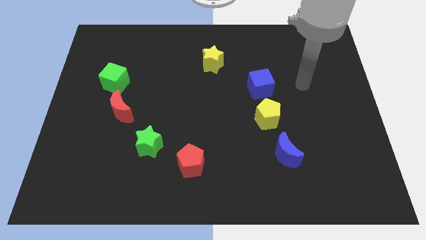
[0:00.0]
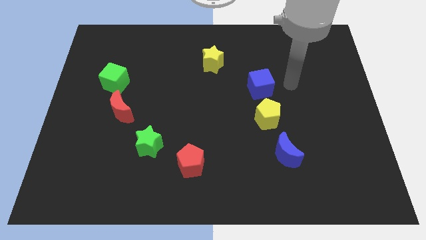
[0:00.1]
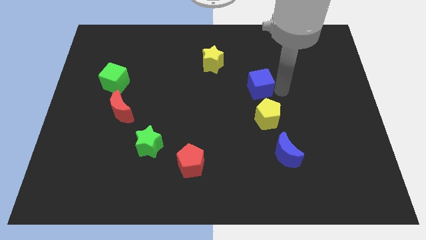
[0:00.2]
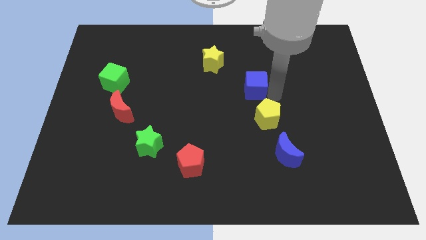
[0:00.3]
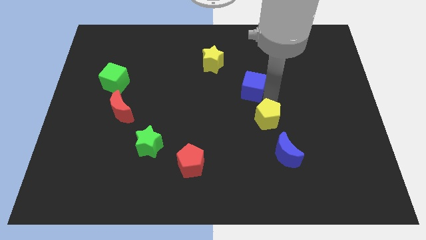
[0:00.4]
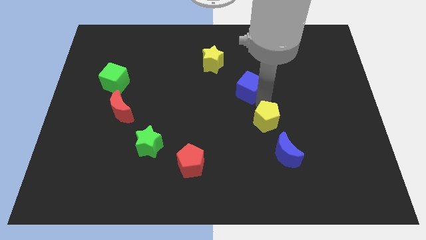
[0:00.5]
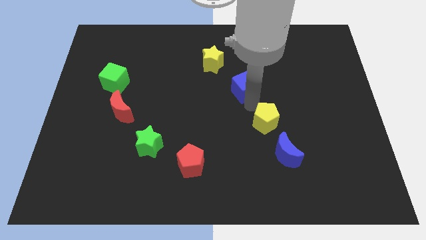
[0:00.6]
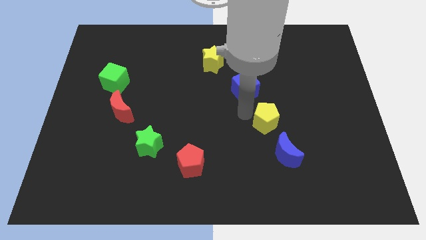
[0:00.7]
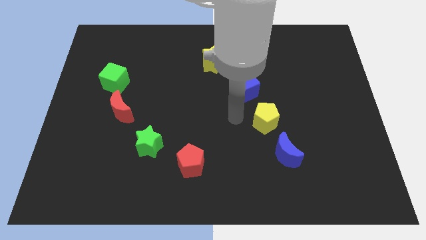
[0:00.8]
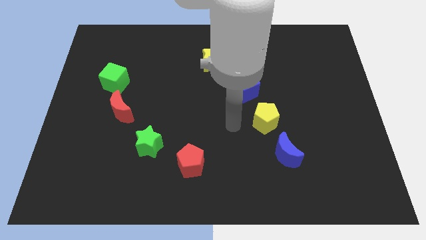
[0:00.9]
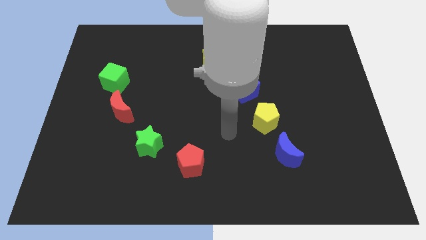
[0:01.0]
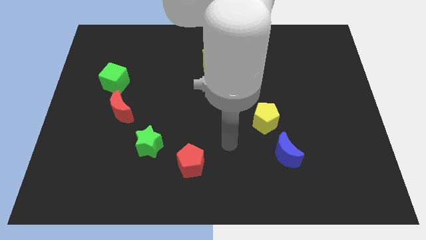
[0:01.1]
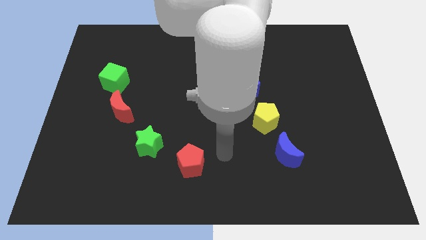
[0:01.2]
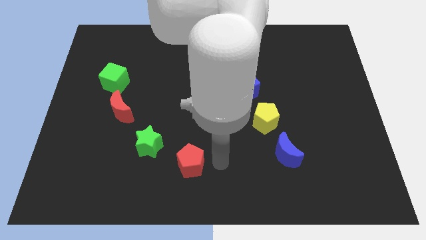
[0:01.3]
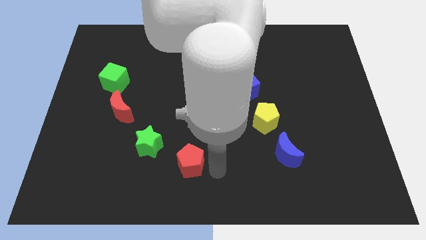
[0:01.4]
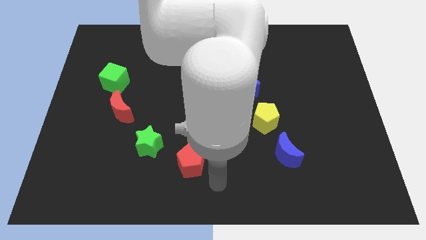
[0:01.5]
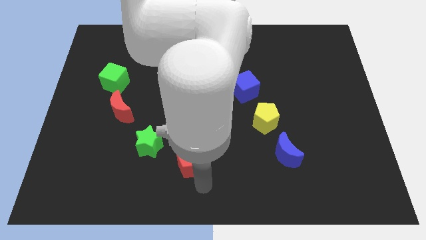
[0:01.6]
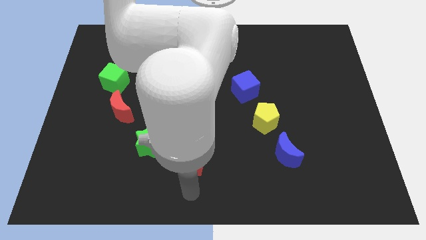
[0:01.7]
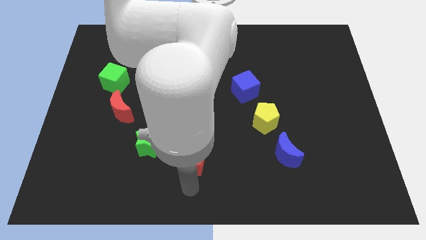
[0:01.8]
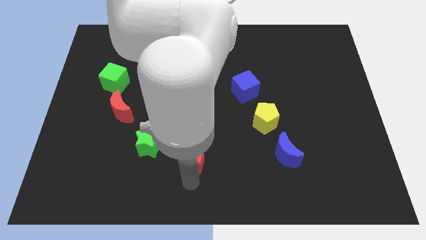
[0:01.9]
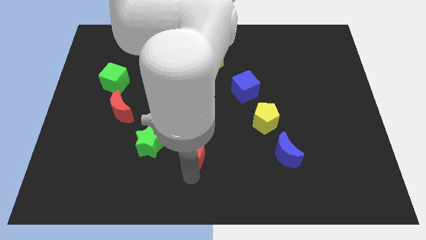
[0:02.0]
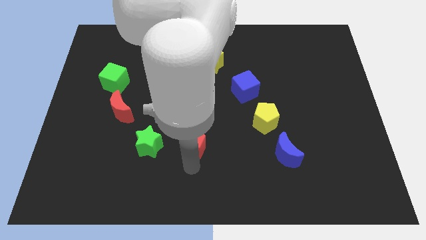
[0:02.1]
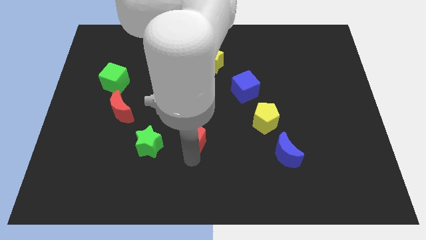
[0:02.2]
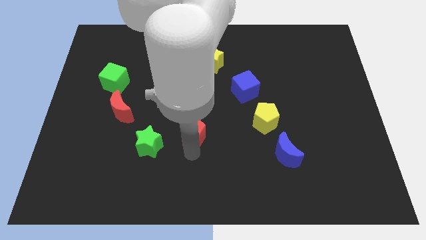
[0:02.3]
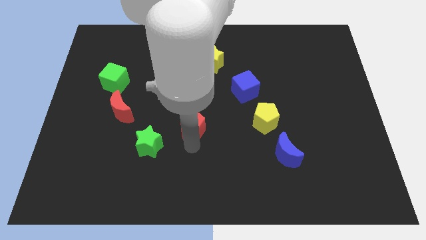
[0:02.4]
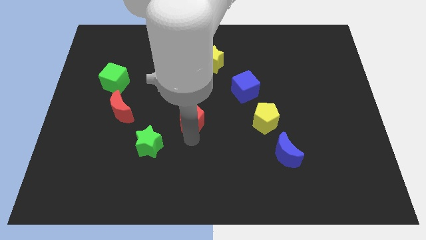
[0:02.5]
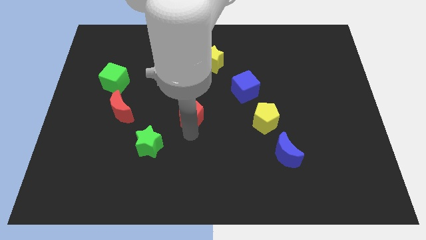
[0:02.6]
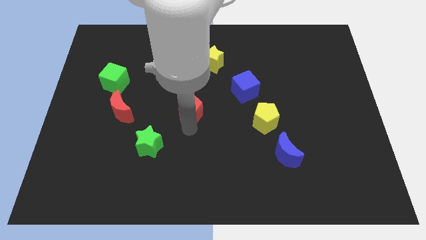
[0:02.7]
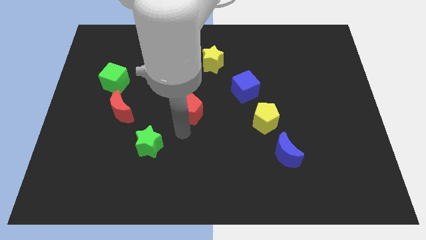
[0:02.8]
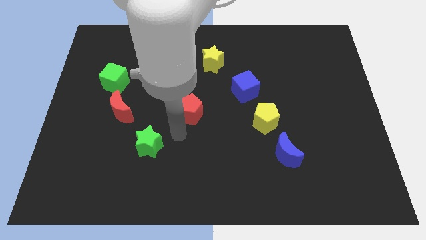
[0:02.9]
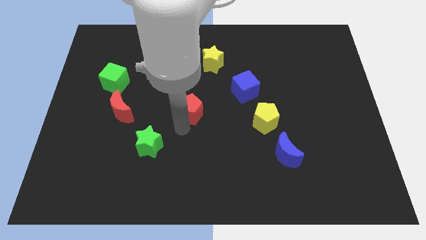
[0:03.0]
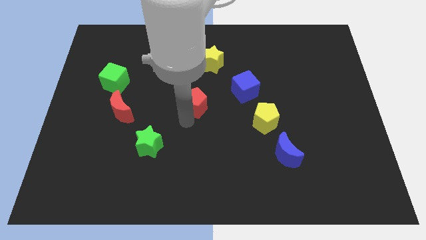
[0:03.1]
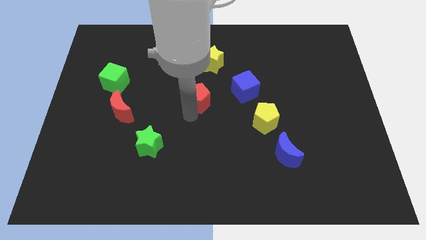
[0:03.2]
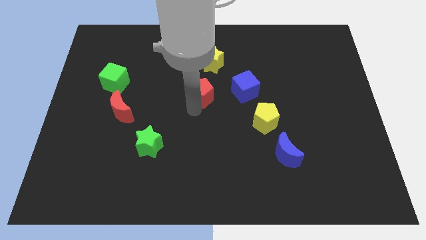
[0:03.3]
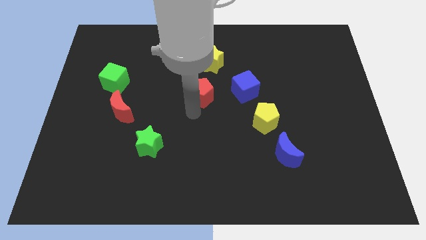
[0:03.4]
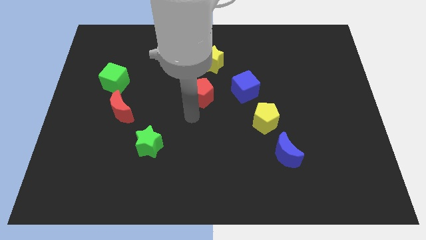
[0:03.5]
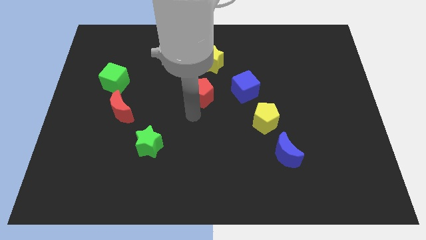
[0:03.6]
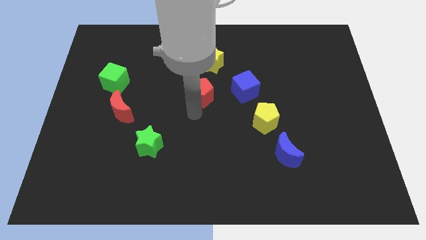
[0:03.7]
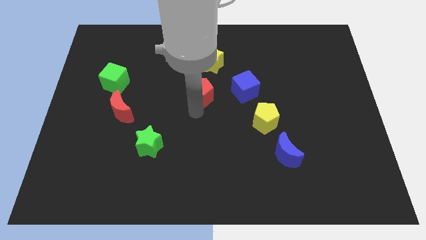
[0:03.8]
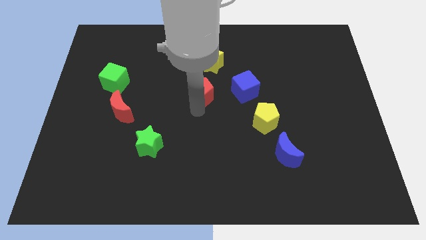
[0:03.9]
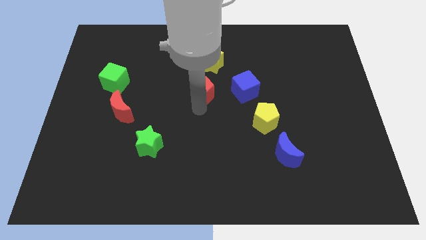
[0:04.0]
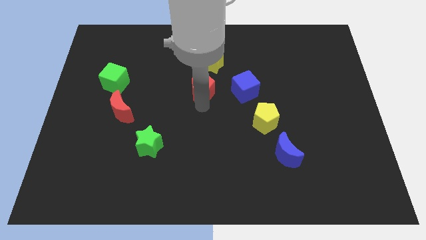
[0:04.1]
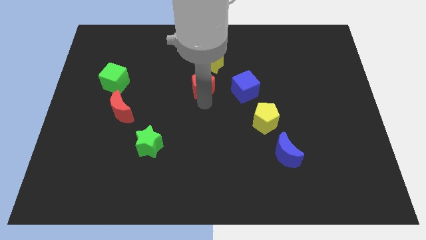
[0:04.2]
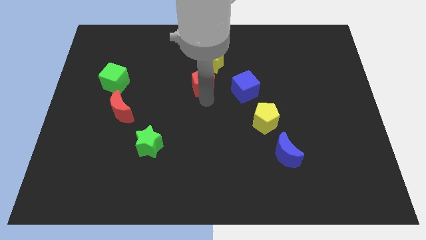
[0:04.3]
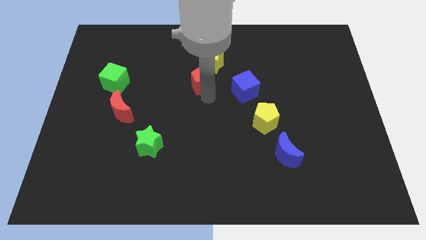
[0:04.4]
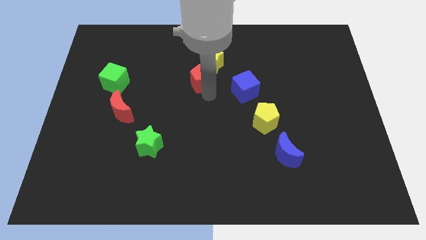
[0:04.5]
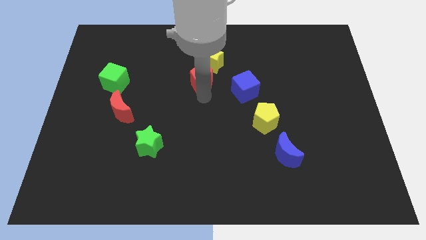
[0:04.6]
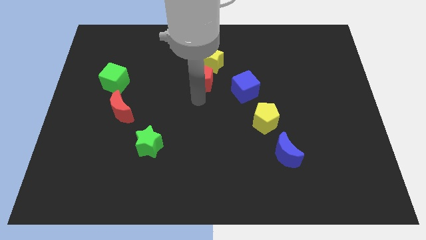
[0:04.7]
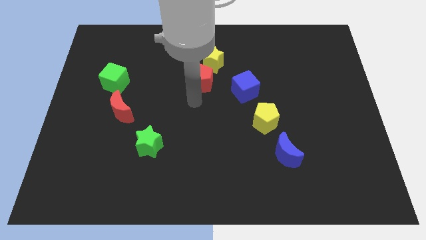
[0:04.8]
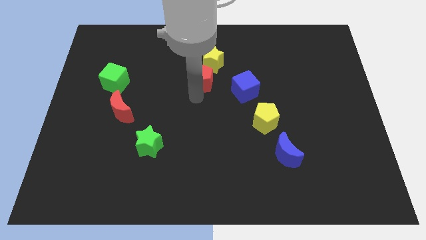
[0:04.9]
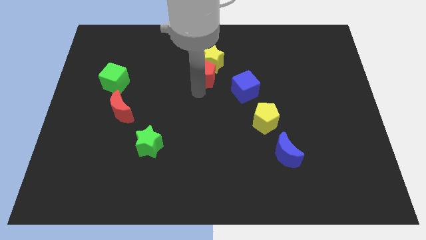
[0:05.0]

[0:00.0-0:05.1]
move the red pentagon towards the yellow star

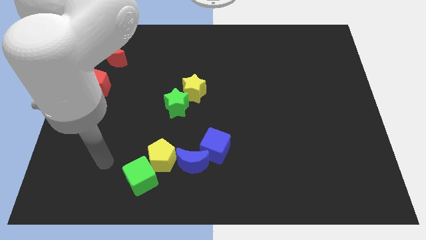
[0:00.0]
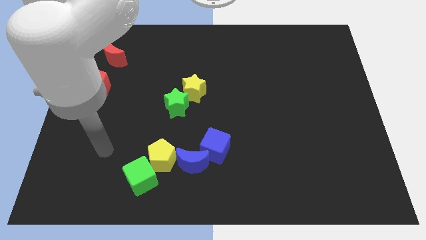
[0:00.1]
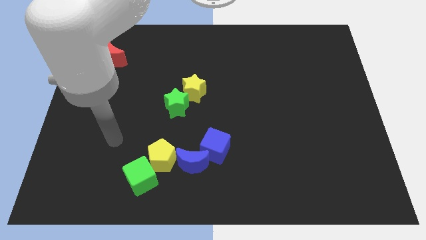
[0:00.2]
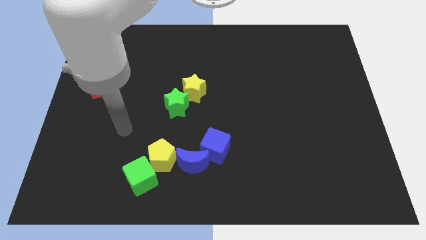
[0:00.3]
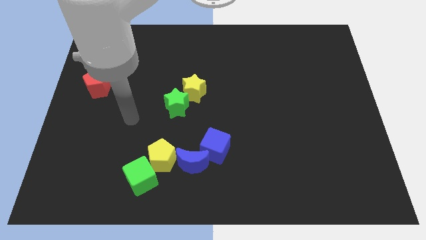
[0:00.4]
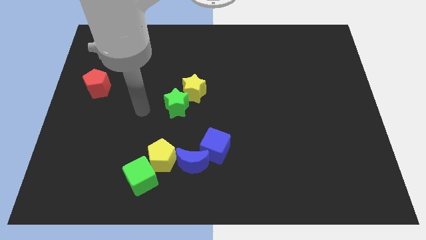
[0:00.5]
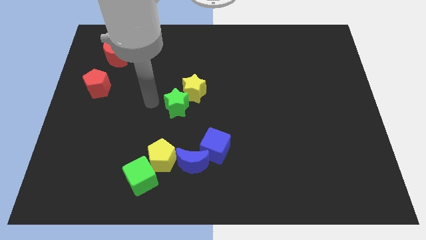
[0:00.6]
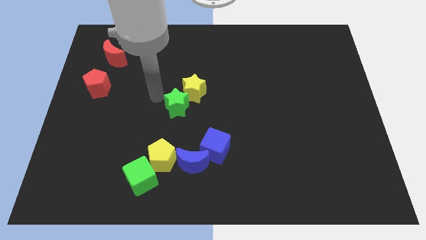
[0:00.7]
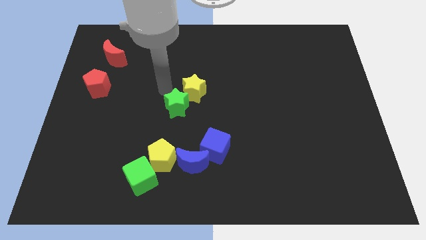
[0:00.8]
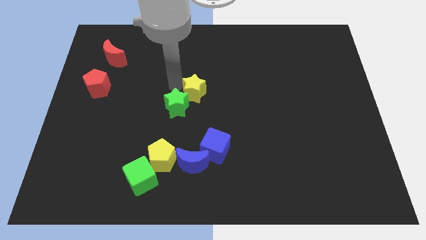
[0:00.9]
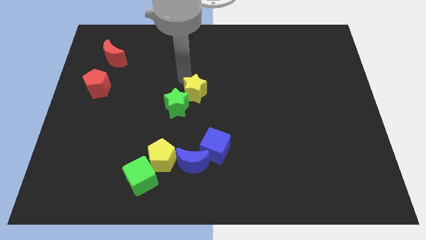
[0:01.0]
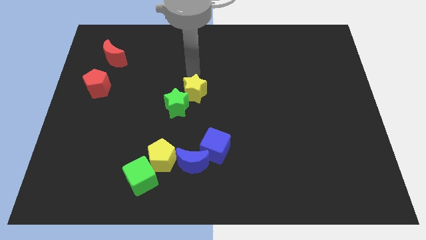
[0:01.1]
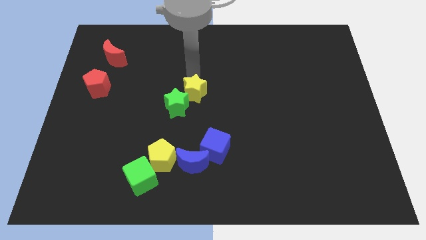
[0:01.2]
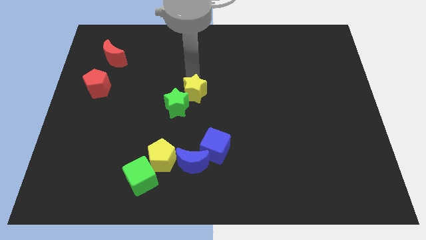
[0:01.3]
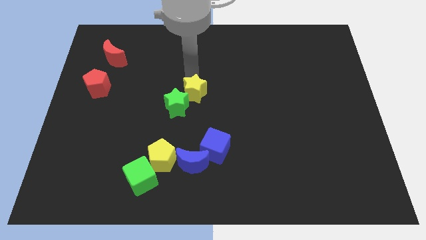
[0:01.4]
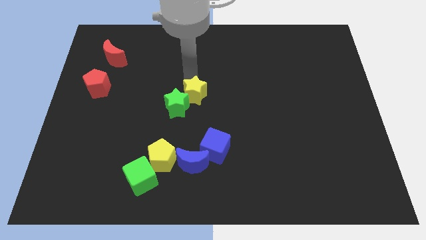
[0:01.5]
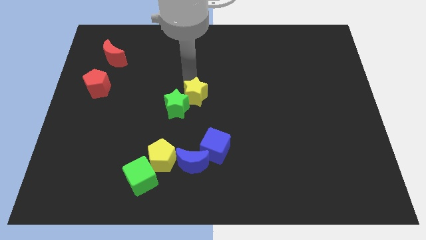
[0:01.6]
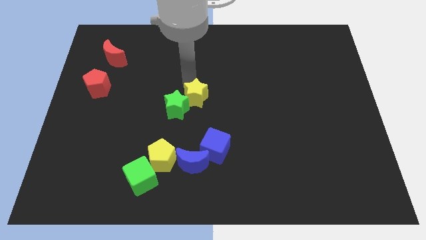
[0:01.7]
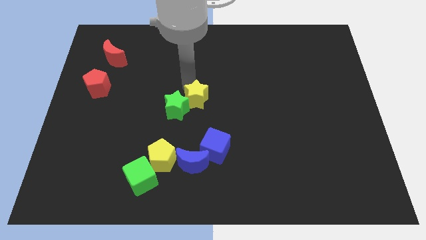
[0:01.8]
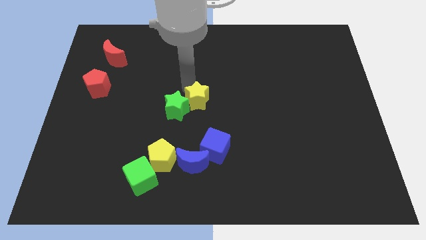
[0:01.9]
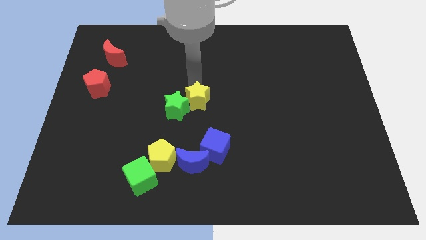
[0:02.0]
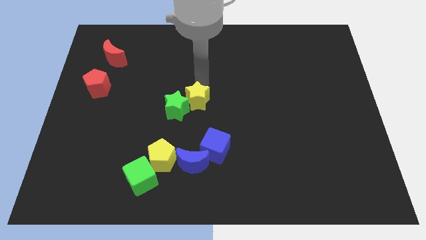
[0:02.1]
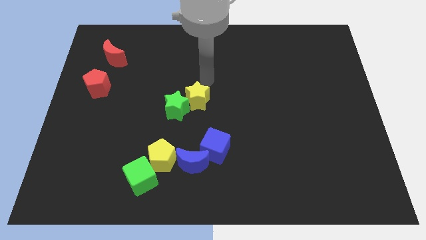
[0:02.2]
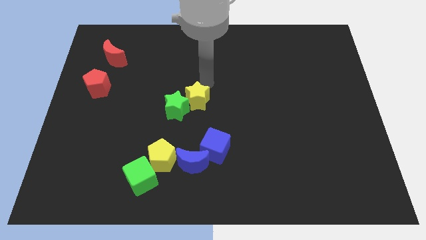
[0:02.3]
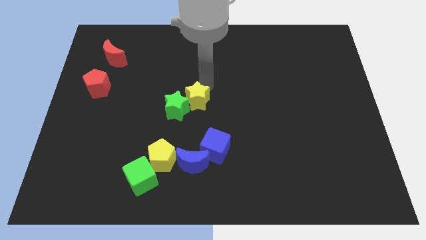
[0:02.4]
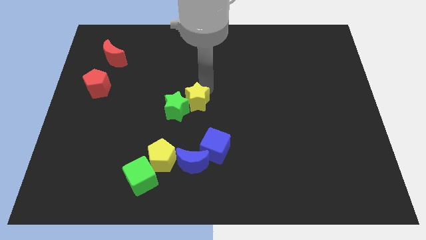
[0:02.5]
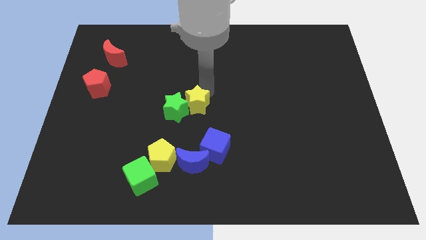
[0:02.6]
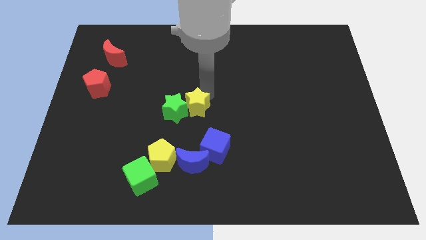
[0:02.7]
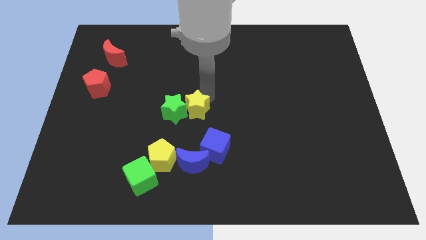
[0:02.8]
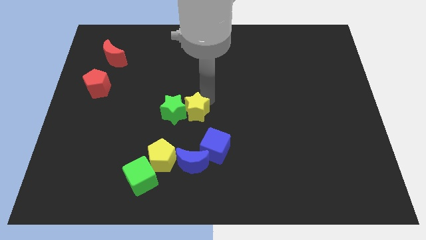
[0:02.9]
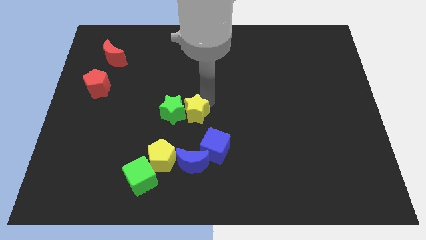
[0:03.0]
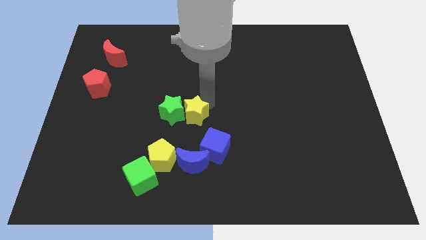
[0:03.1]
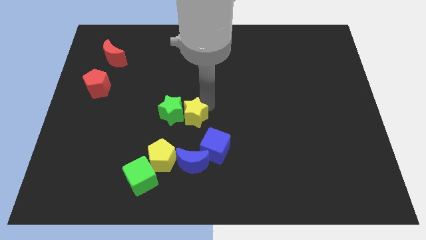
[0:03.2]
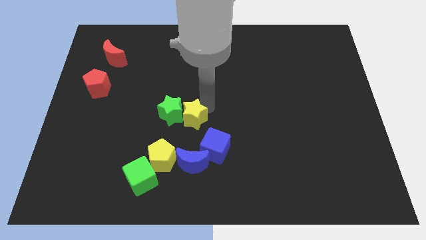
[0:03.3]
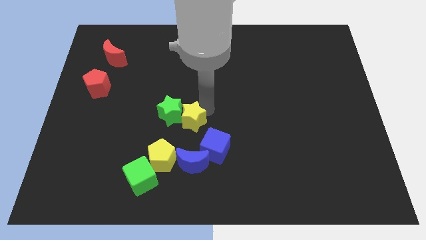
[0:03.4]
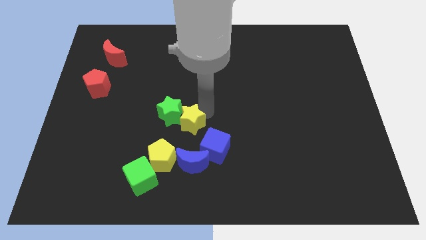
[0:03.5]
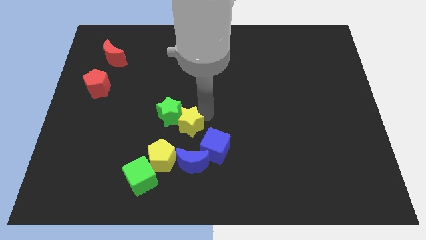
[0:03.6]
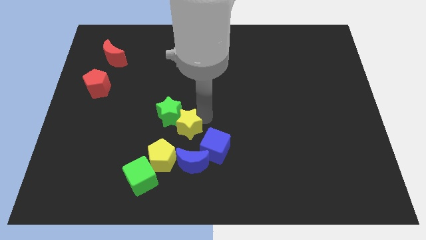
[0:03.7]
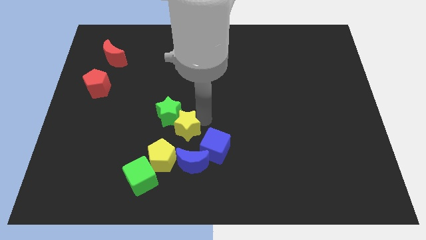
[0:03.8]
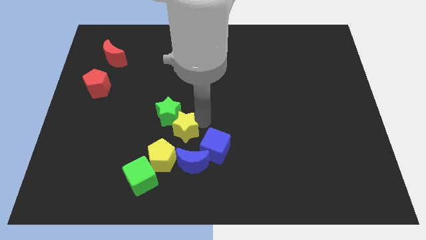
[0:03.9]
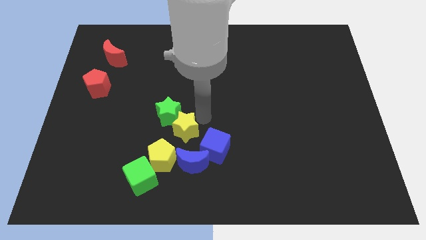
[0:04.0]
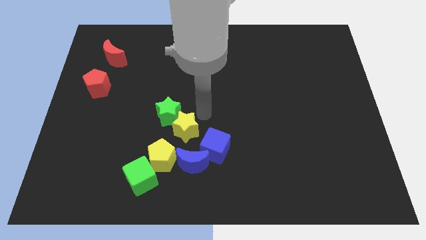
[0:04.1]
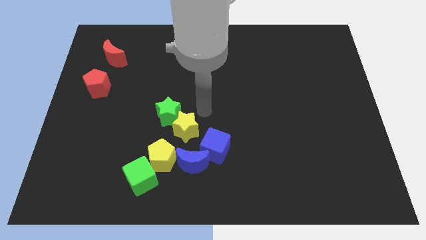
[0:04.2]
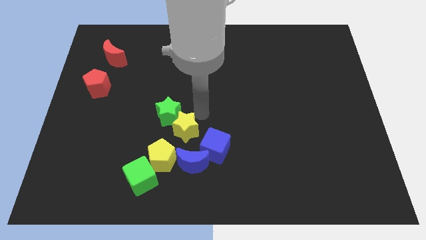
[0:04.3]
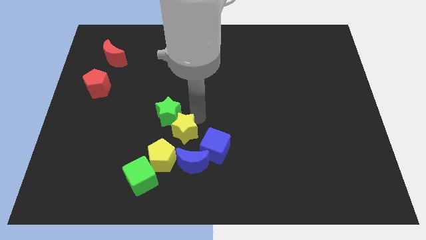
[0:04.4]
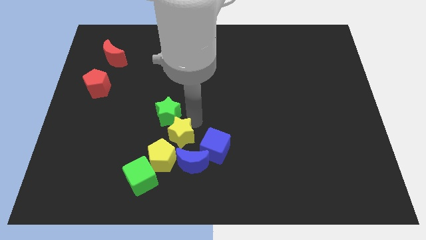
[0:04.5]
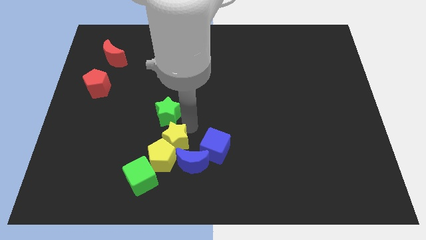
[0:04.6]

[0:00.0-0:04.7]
move the yellow star towards the yellow pentagon
